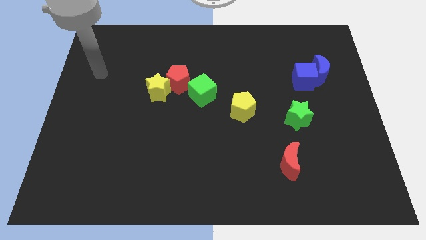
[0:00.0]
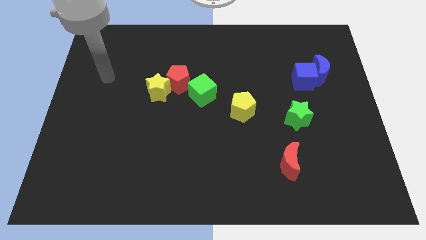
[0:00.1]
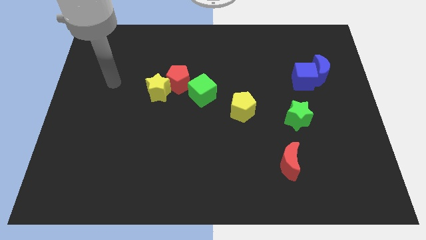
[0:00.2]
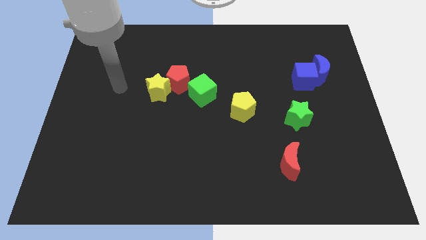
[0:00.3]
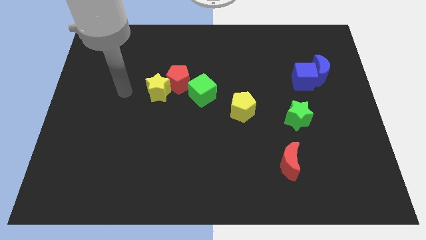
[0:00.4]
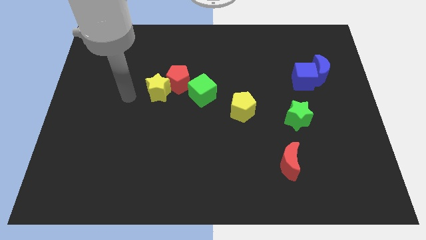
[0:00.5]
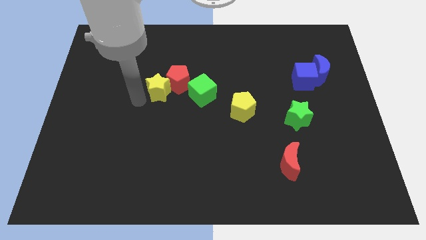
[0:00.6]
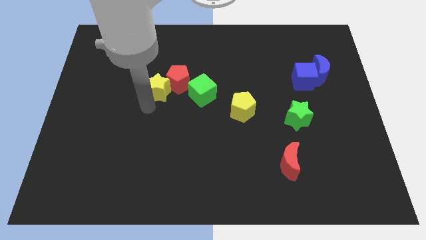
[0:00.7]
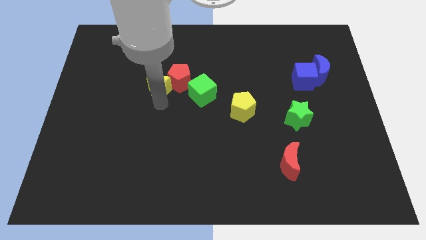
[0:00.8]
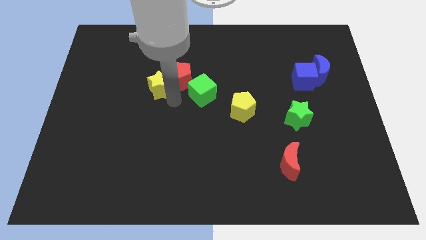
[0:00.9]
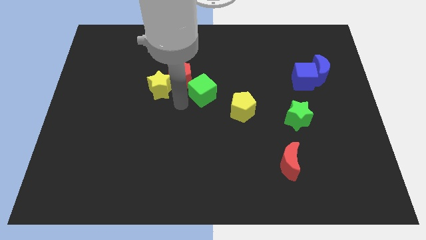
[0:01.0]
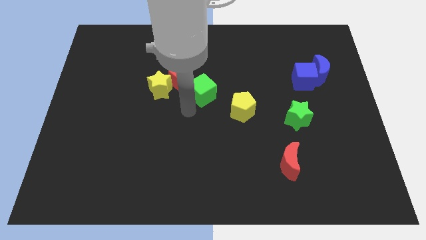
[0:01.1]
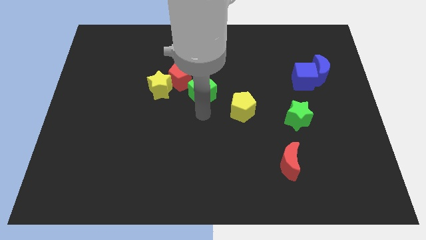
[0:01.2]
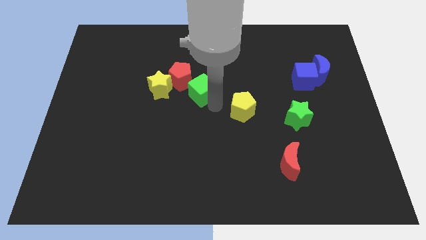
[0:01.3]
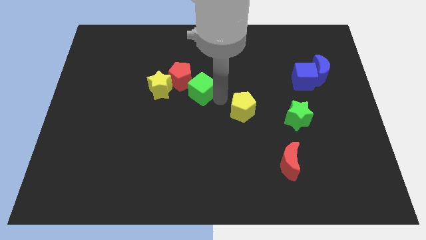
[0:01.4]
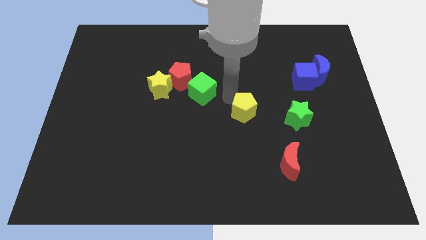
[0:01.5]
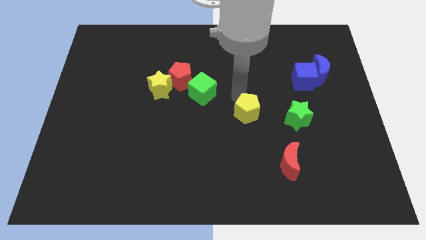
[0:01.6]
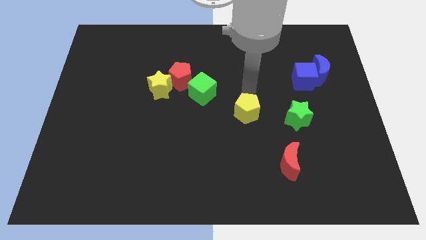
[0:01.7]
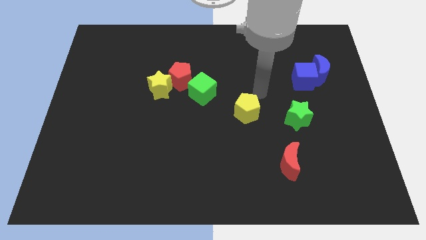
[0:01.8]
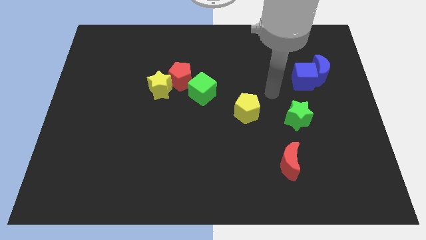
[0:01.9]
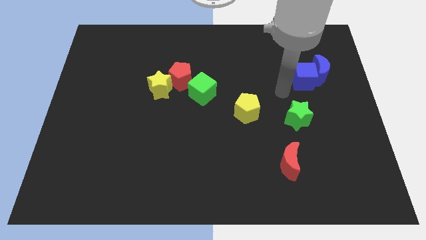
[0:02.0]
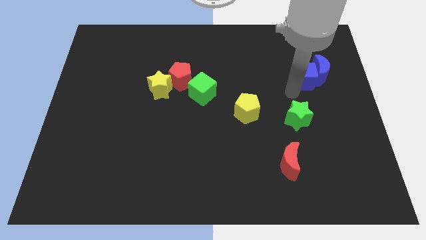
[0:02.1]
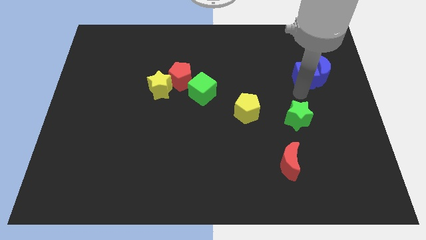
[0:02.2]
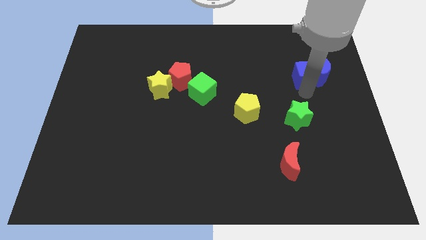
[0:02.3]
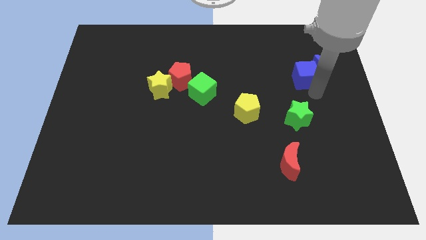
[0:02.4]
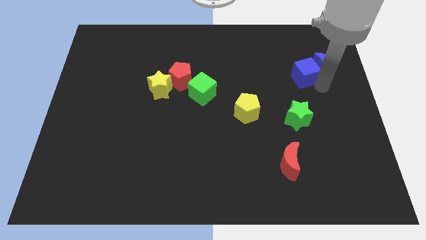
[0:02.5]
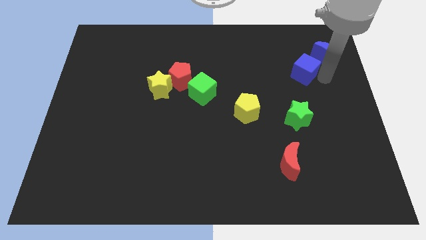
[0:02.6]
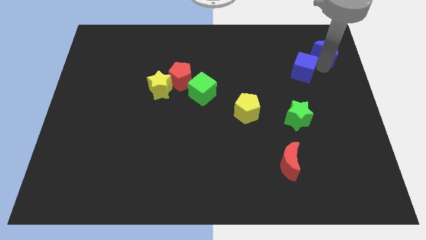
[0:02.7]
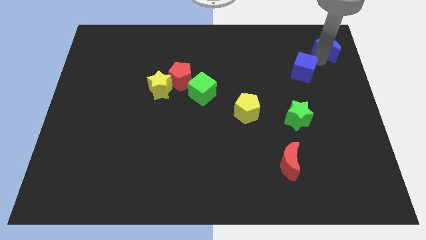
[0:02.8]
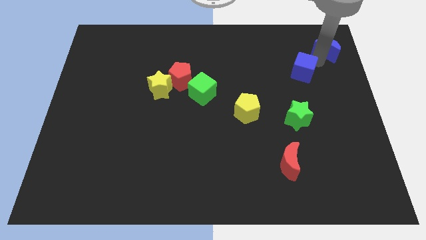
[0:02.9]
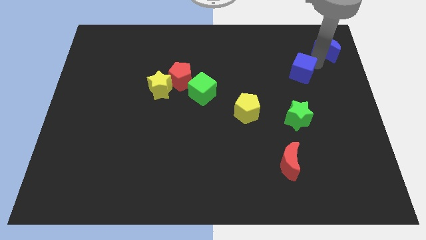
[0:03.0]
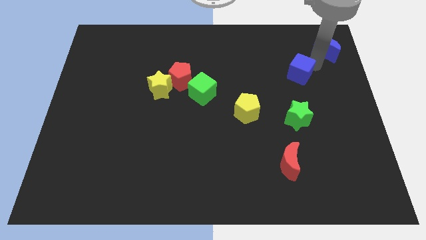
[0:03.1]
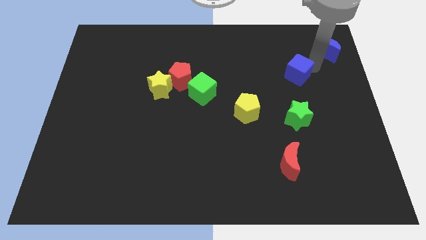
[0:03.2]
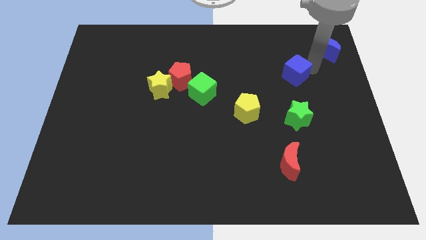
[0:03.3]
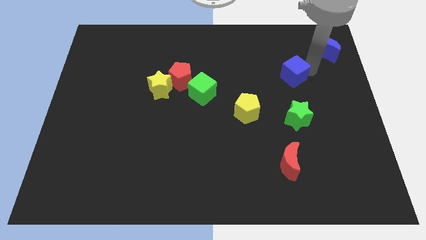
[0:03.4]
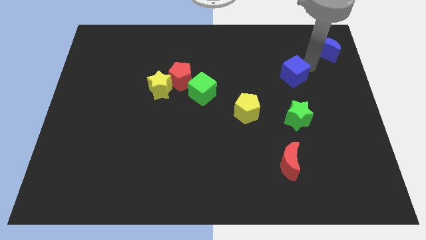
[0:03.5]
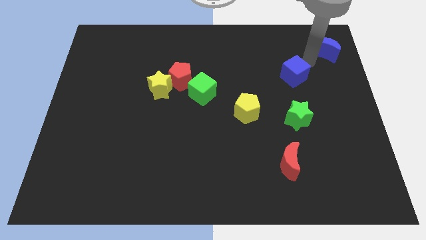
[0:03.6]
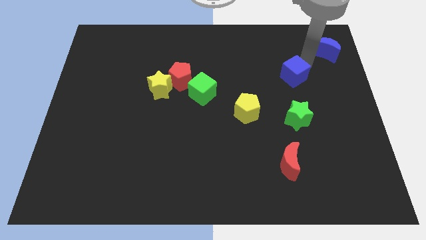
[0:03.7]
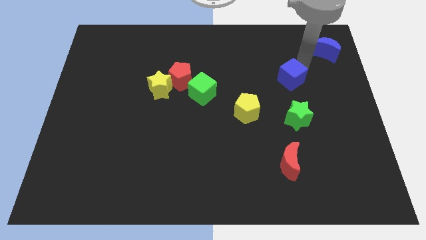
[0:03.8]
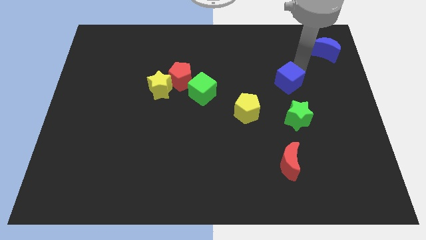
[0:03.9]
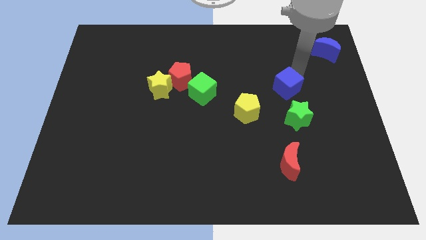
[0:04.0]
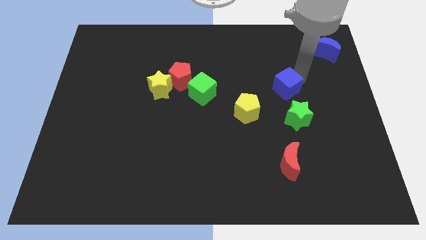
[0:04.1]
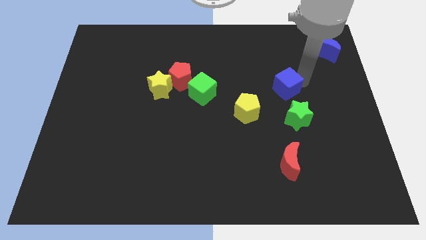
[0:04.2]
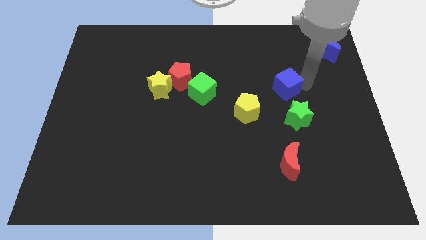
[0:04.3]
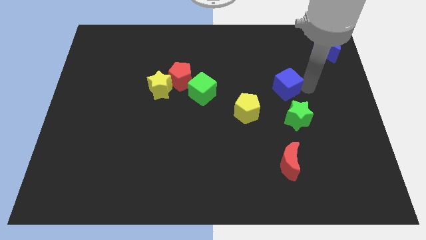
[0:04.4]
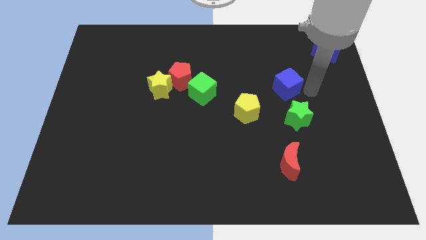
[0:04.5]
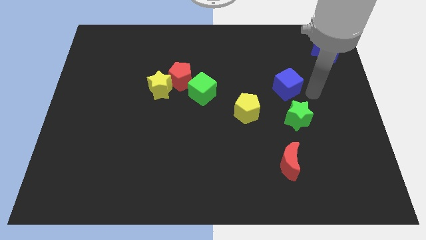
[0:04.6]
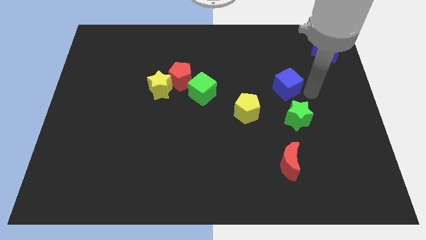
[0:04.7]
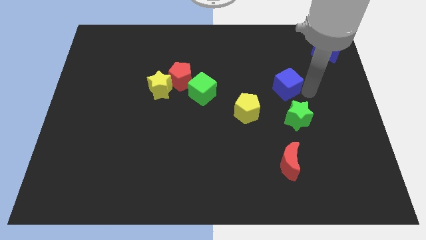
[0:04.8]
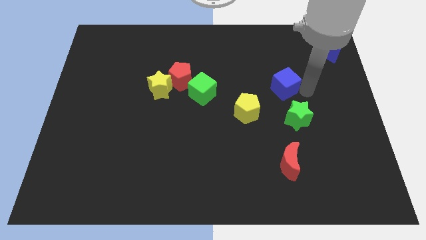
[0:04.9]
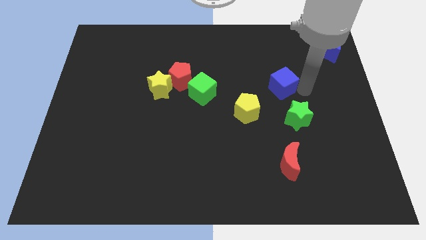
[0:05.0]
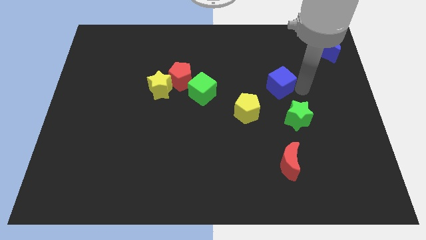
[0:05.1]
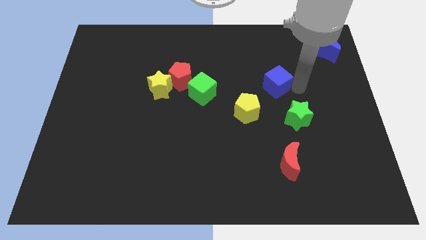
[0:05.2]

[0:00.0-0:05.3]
move the blue cube somewhat left

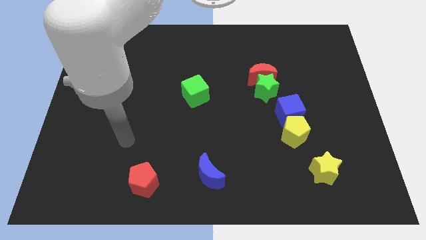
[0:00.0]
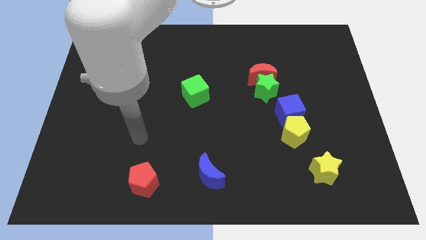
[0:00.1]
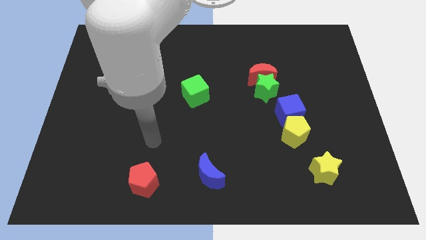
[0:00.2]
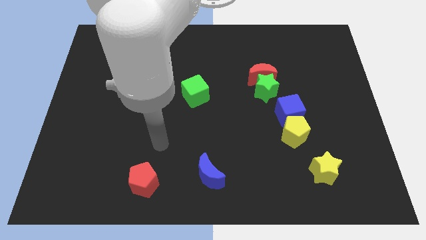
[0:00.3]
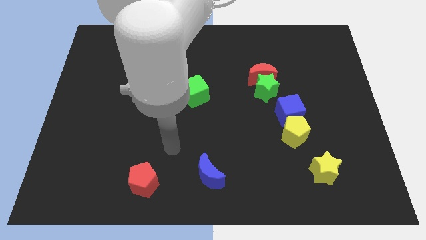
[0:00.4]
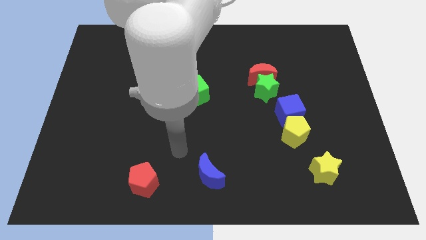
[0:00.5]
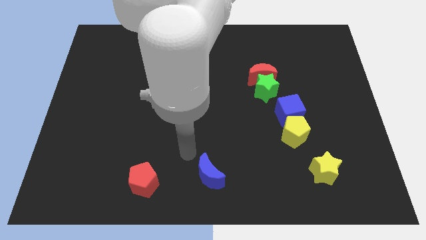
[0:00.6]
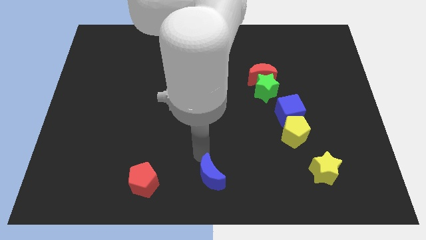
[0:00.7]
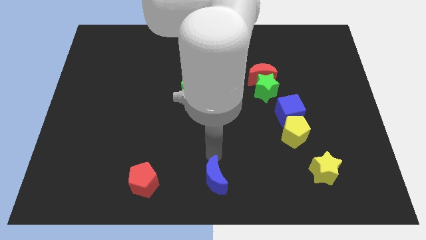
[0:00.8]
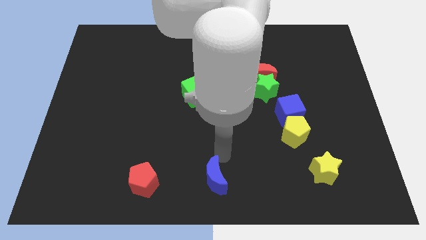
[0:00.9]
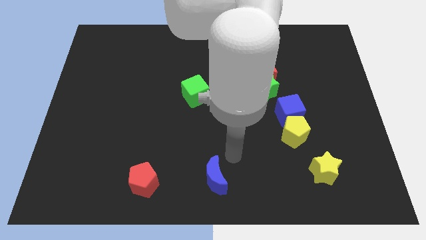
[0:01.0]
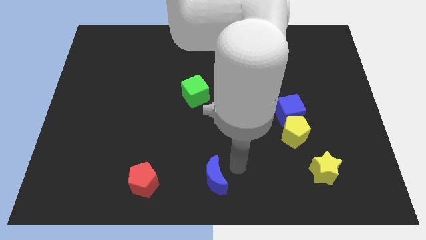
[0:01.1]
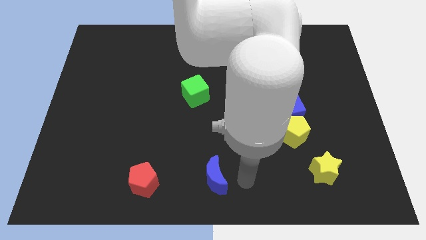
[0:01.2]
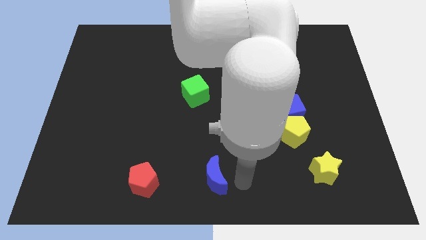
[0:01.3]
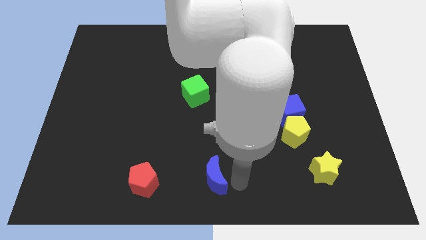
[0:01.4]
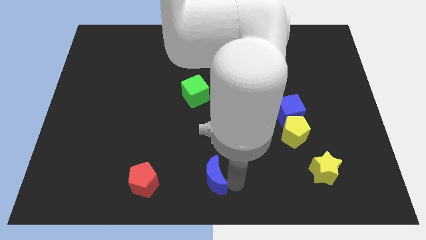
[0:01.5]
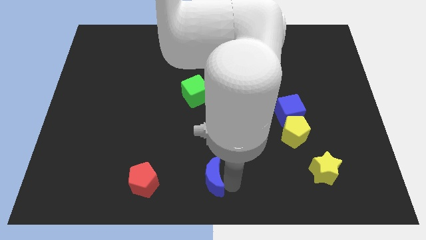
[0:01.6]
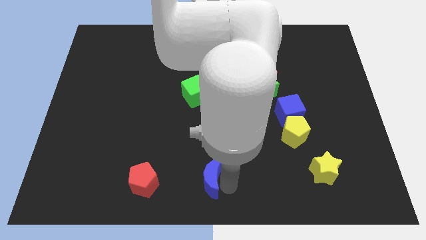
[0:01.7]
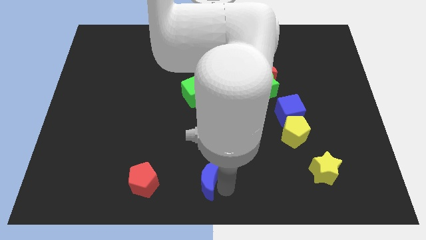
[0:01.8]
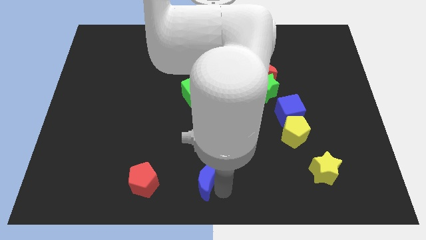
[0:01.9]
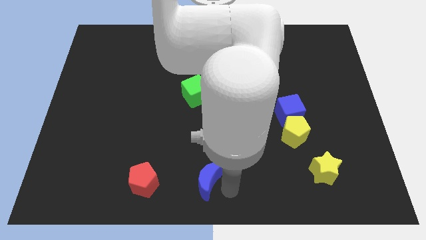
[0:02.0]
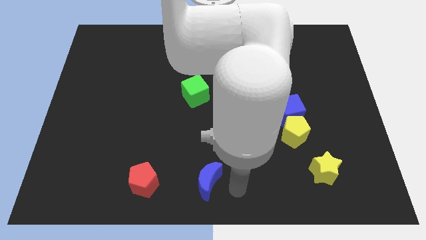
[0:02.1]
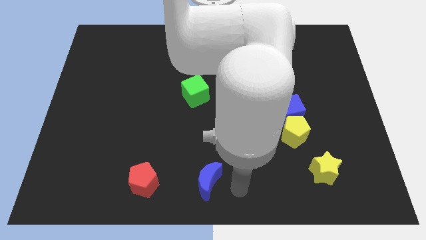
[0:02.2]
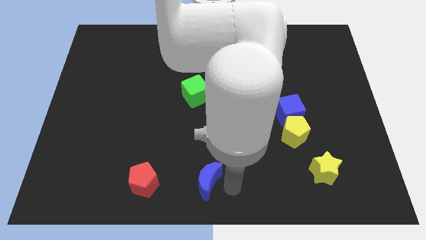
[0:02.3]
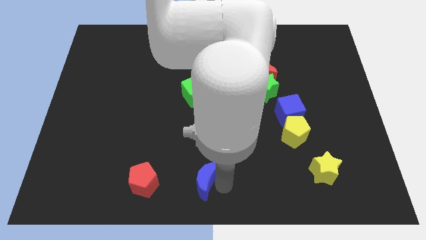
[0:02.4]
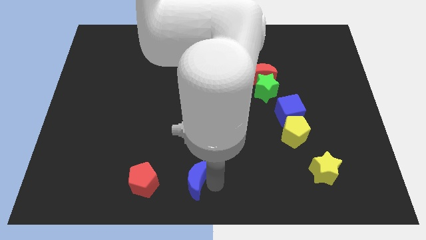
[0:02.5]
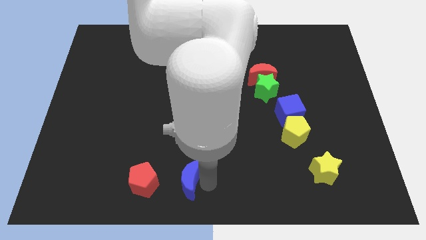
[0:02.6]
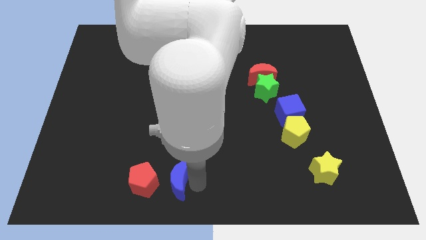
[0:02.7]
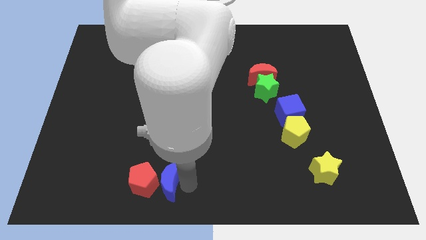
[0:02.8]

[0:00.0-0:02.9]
slide the blue moon left a little
